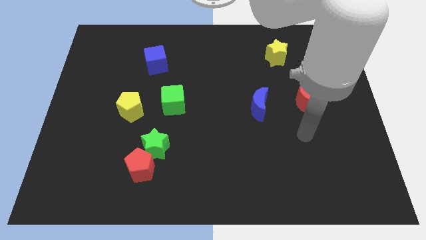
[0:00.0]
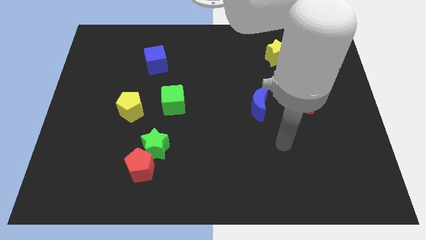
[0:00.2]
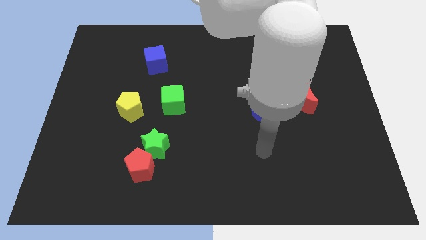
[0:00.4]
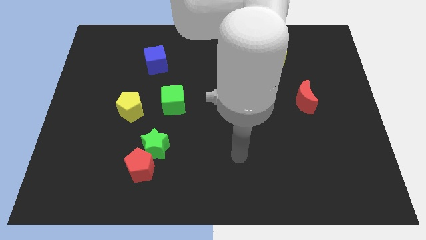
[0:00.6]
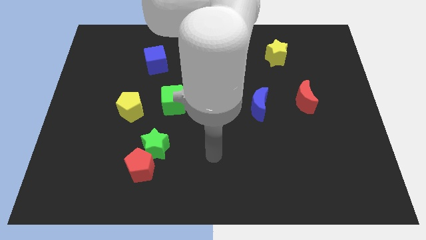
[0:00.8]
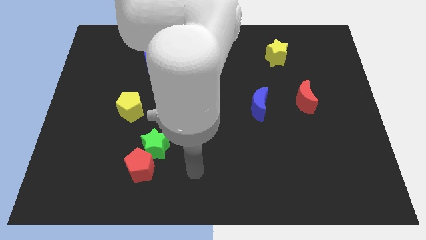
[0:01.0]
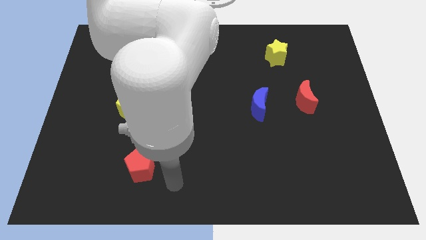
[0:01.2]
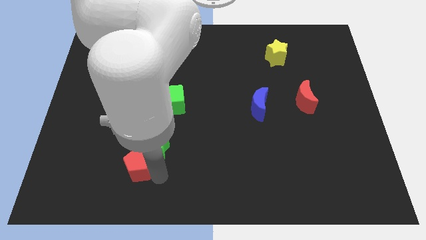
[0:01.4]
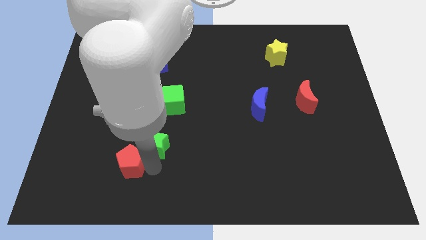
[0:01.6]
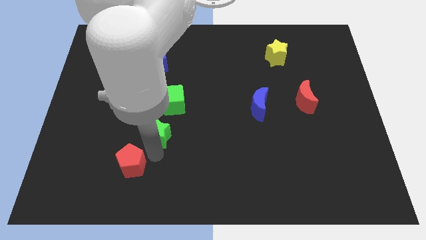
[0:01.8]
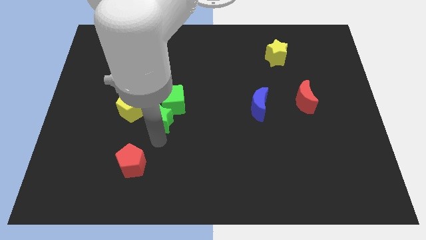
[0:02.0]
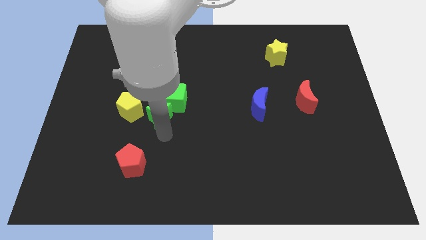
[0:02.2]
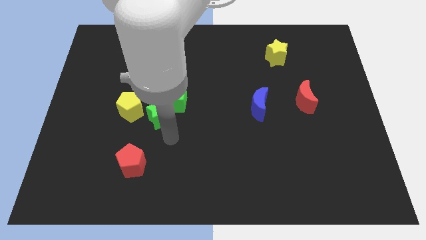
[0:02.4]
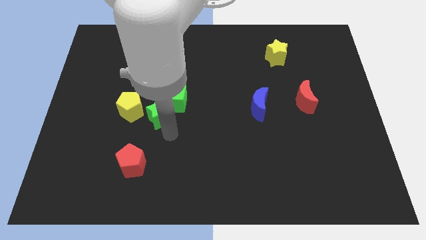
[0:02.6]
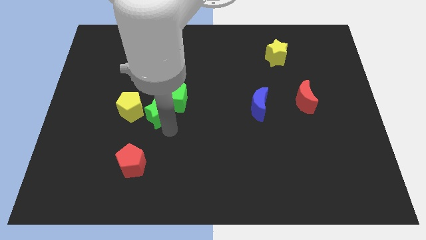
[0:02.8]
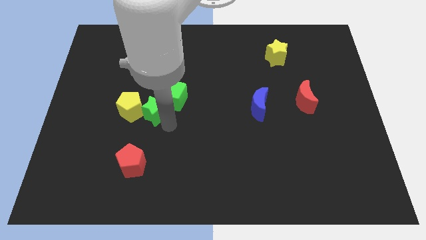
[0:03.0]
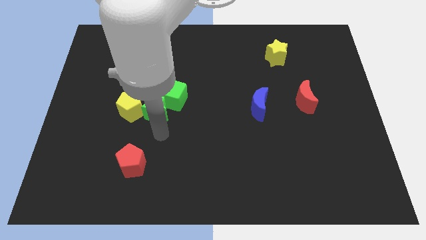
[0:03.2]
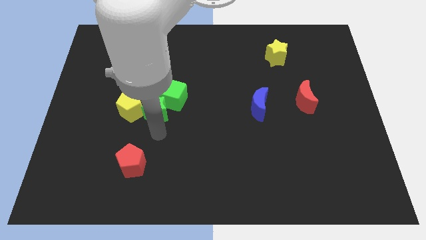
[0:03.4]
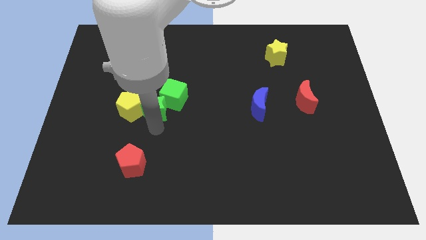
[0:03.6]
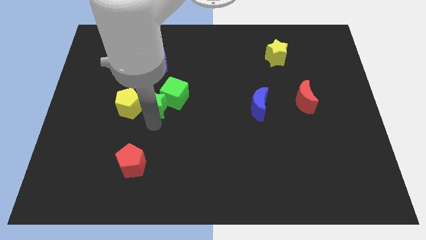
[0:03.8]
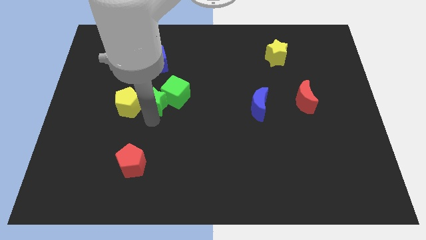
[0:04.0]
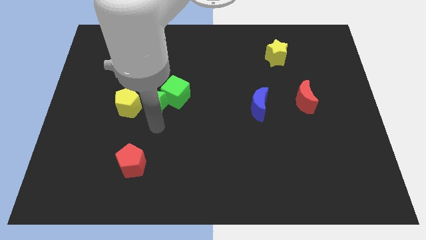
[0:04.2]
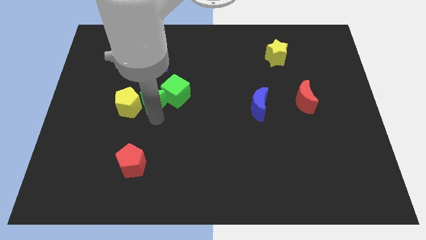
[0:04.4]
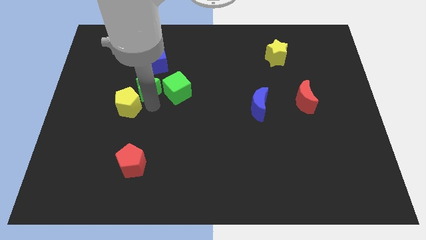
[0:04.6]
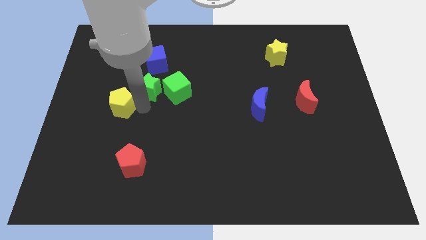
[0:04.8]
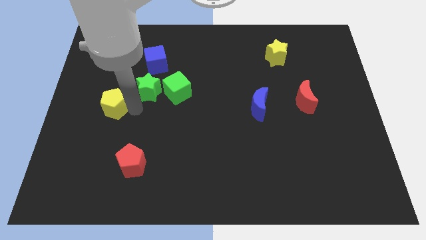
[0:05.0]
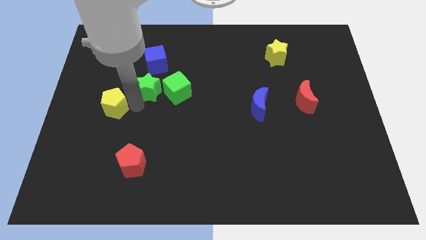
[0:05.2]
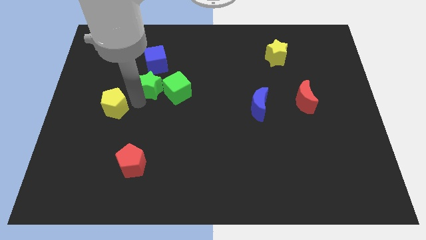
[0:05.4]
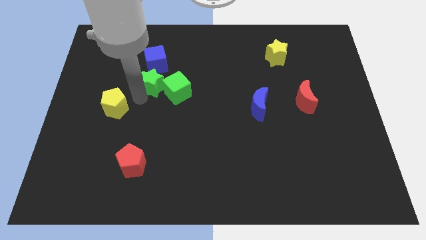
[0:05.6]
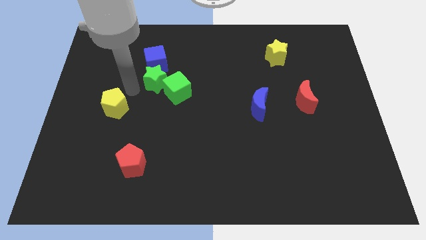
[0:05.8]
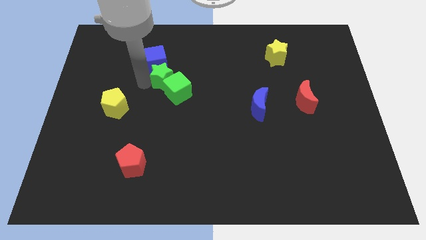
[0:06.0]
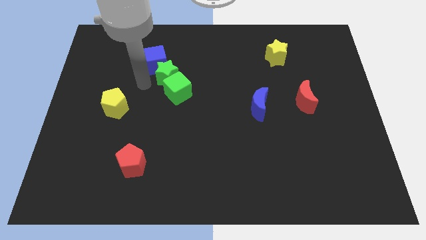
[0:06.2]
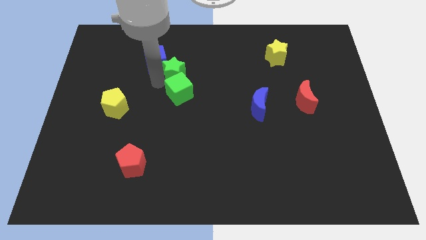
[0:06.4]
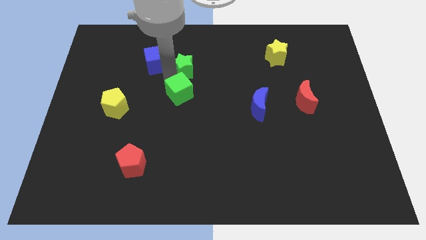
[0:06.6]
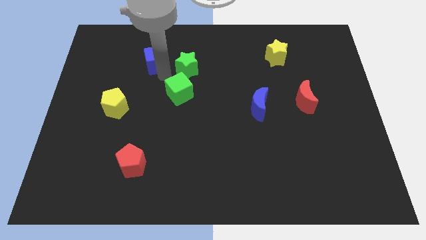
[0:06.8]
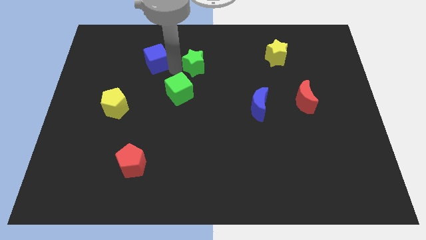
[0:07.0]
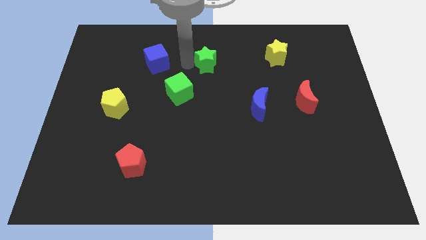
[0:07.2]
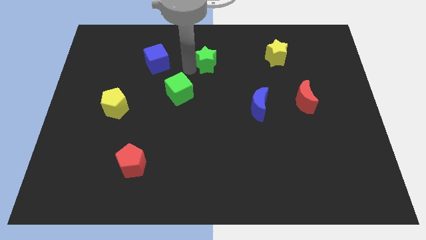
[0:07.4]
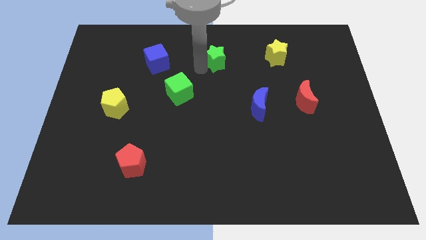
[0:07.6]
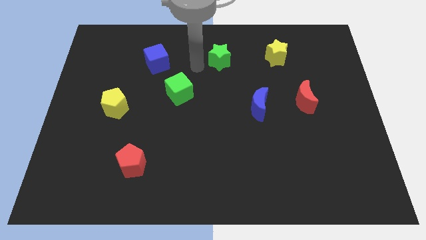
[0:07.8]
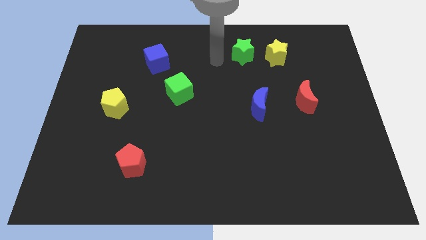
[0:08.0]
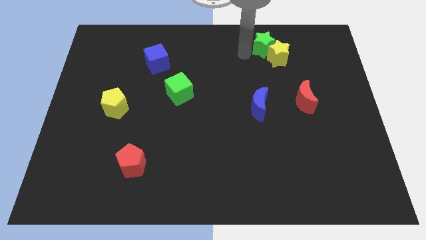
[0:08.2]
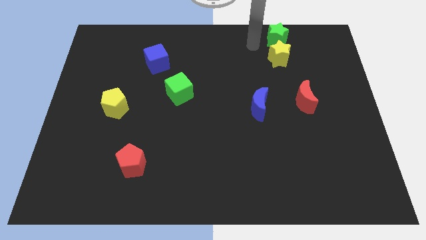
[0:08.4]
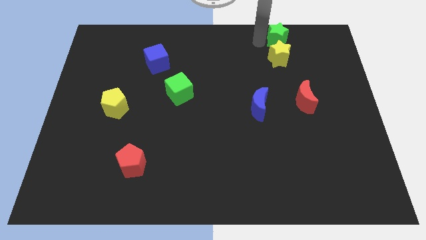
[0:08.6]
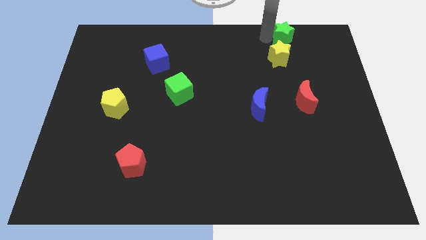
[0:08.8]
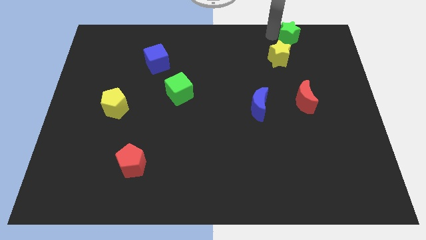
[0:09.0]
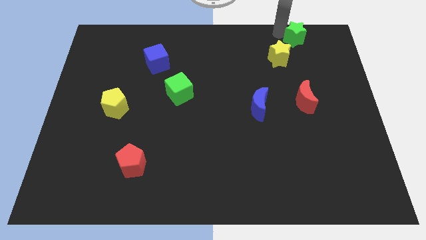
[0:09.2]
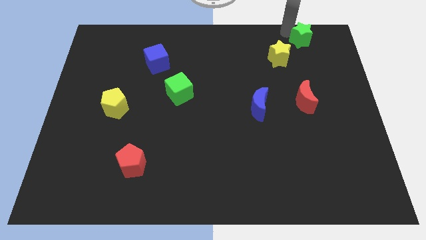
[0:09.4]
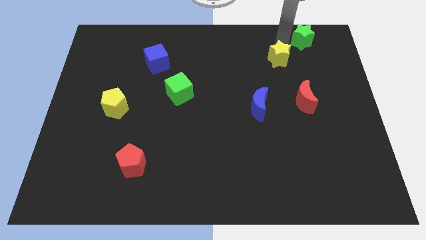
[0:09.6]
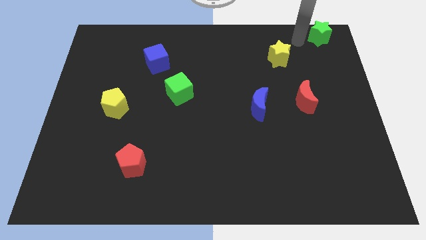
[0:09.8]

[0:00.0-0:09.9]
slide the green star to the top right corner

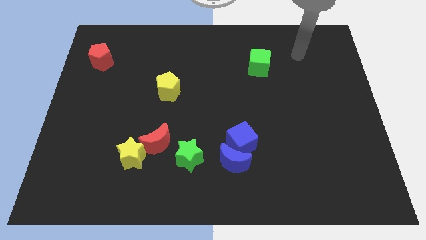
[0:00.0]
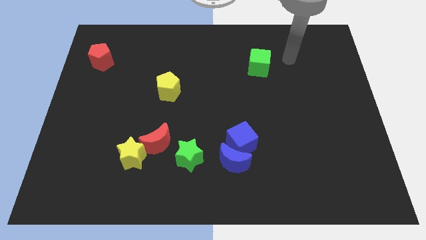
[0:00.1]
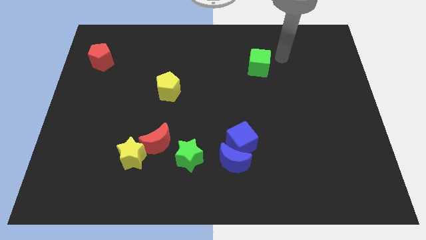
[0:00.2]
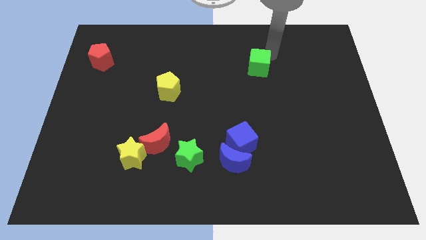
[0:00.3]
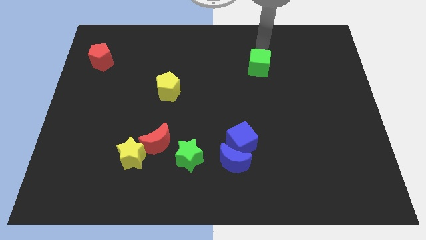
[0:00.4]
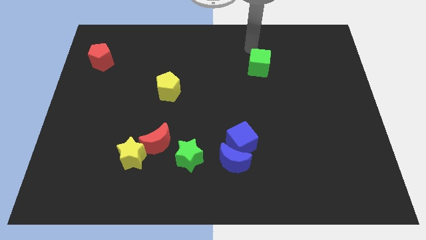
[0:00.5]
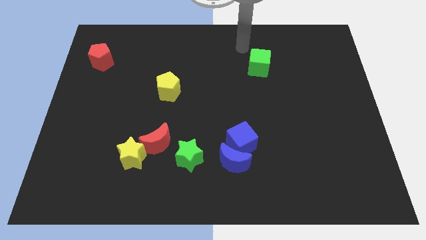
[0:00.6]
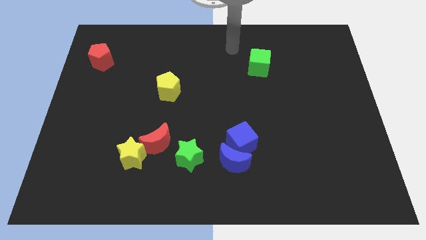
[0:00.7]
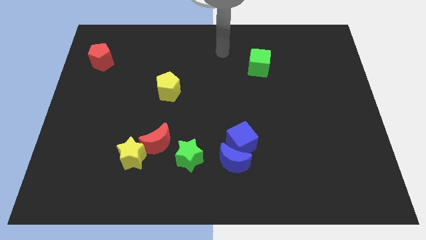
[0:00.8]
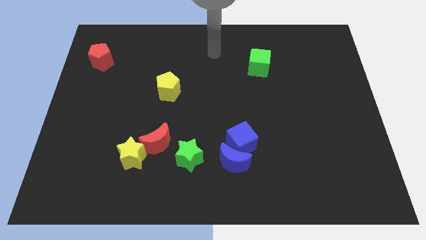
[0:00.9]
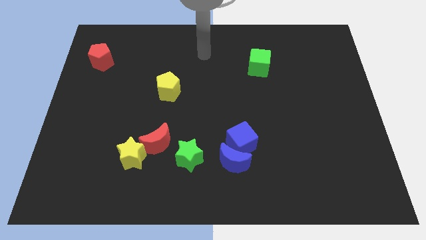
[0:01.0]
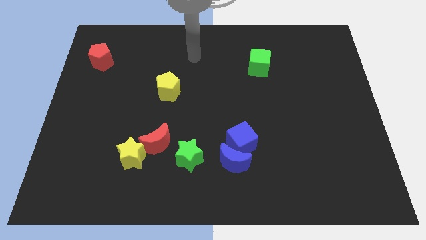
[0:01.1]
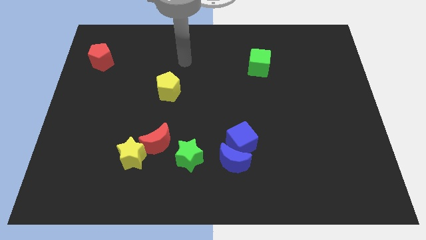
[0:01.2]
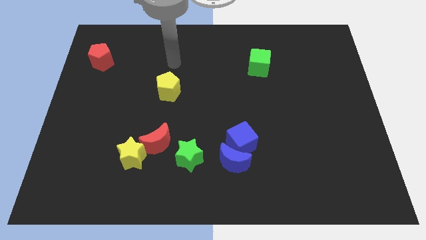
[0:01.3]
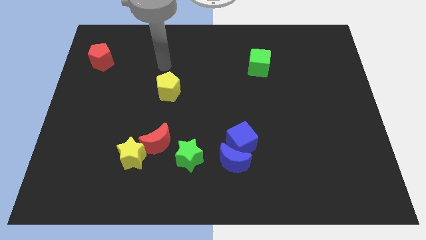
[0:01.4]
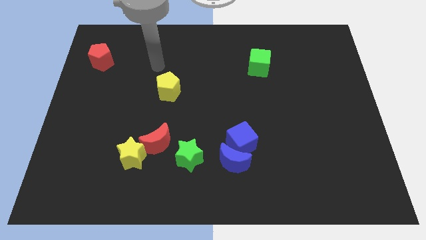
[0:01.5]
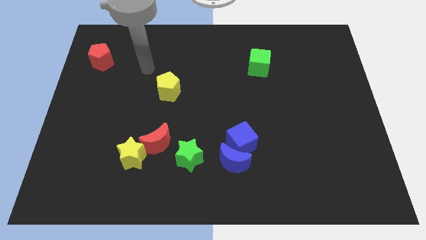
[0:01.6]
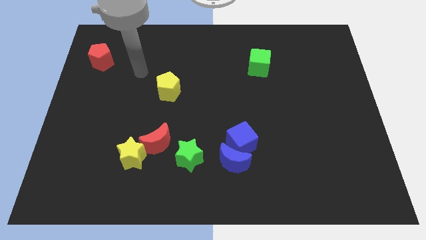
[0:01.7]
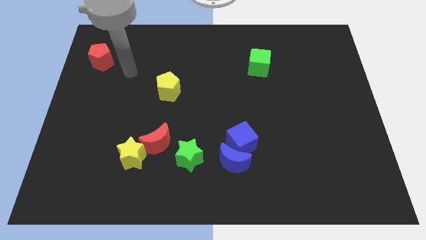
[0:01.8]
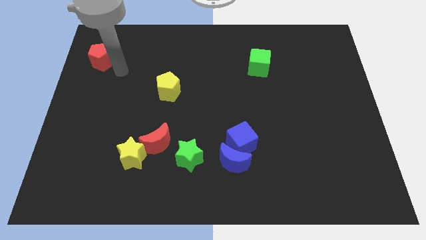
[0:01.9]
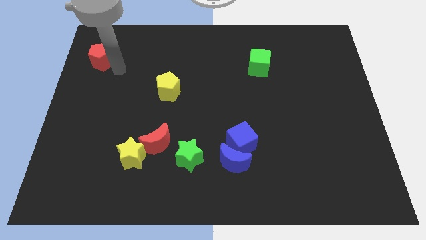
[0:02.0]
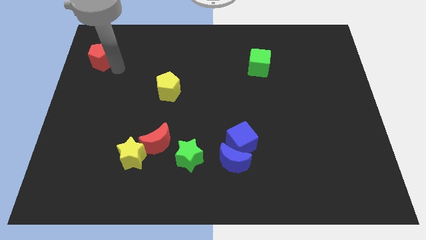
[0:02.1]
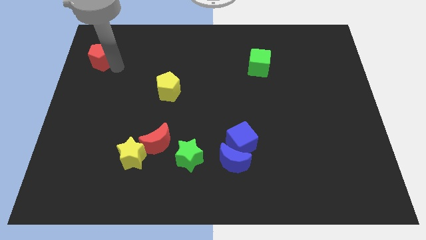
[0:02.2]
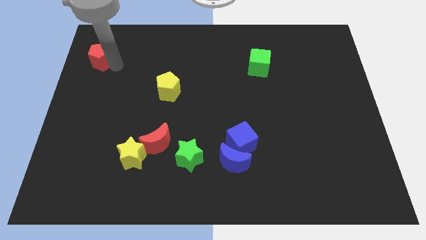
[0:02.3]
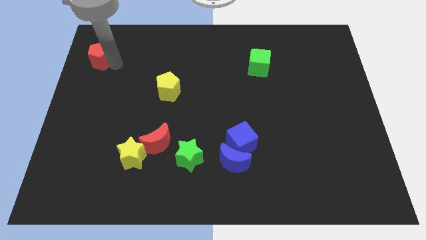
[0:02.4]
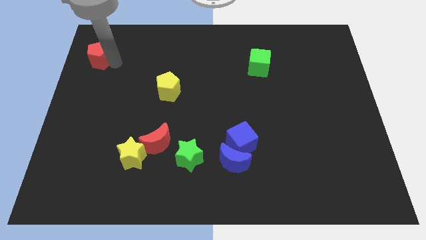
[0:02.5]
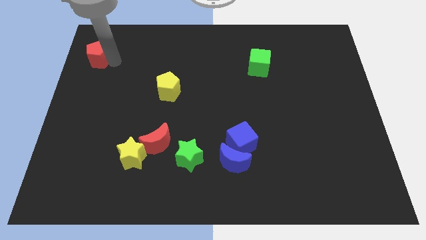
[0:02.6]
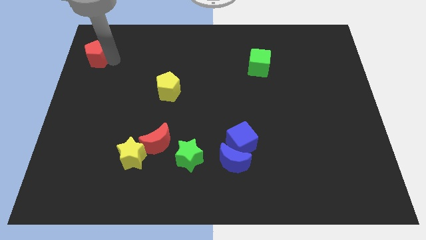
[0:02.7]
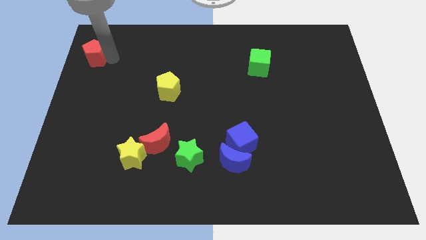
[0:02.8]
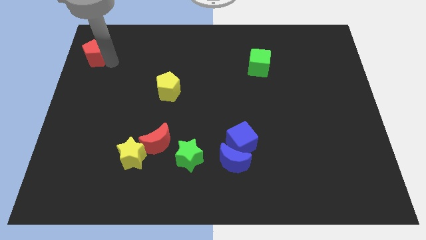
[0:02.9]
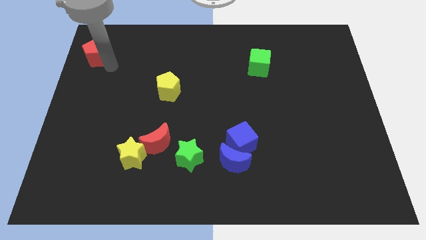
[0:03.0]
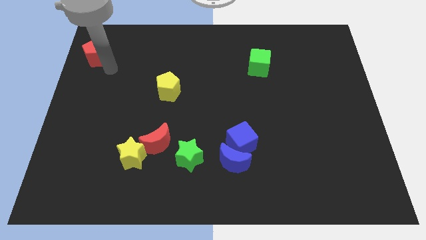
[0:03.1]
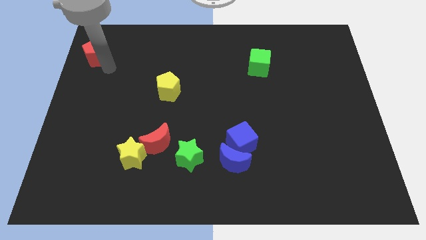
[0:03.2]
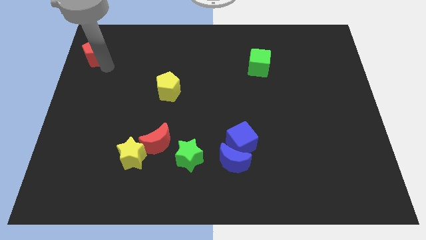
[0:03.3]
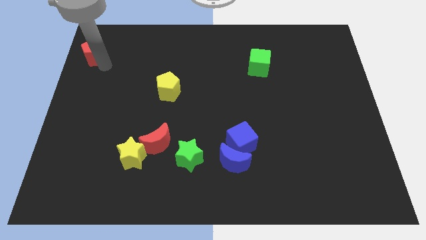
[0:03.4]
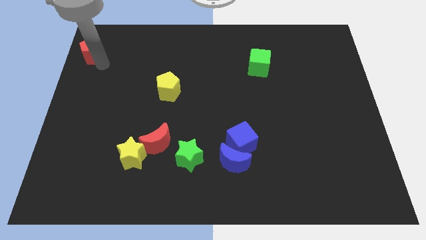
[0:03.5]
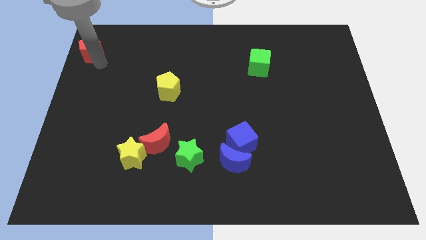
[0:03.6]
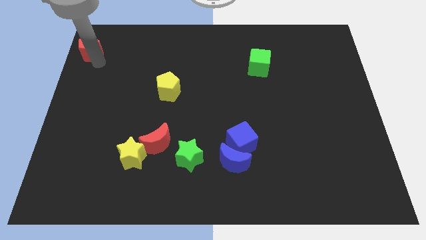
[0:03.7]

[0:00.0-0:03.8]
slide the red pentagon to the top left of the board
